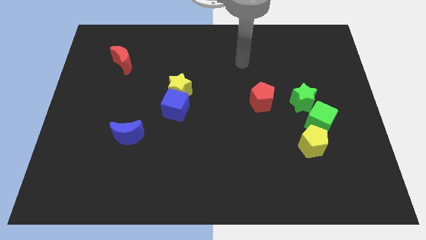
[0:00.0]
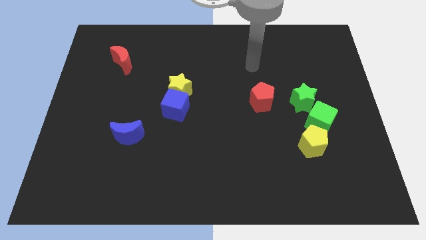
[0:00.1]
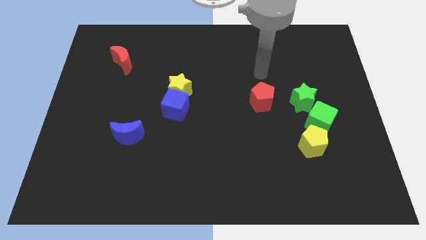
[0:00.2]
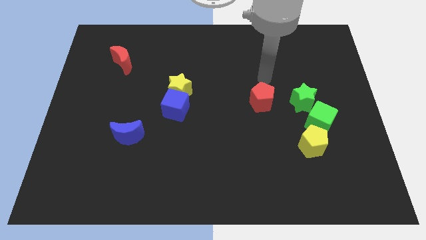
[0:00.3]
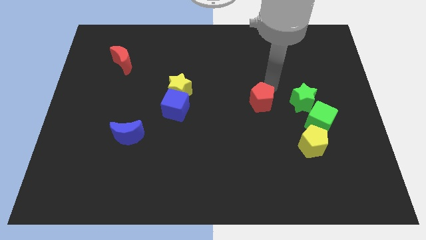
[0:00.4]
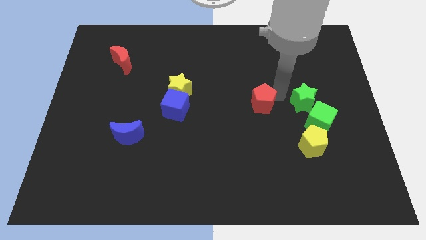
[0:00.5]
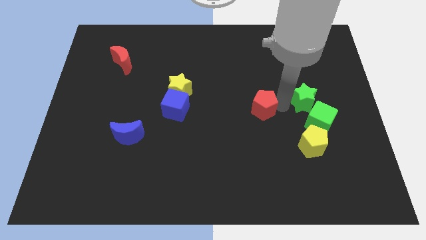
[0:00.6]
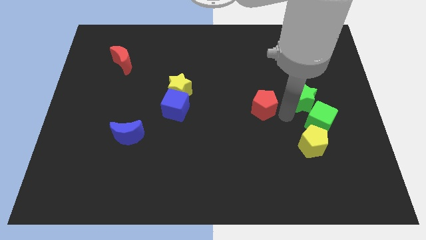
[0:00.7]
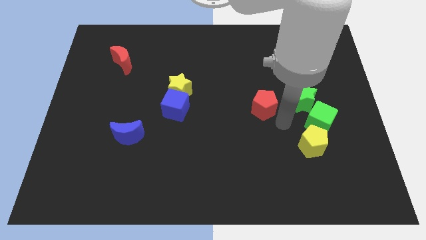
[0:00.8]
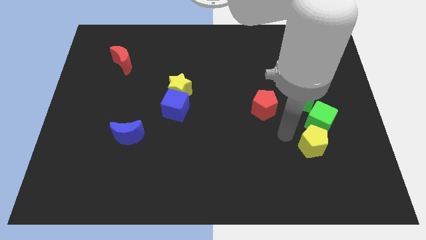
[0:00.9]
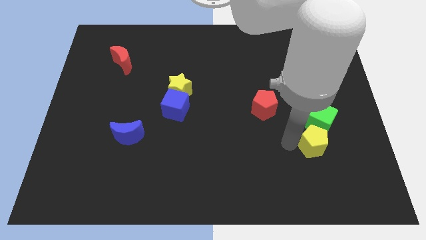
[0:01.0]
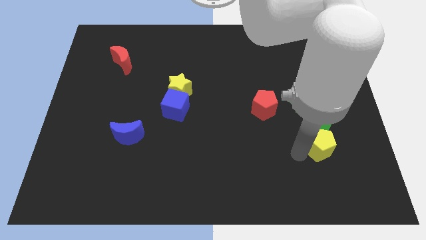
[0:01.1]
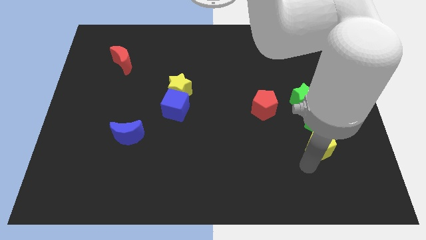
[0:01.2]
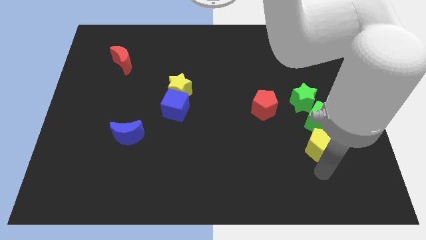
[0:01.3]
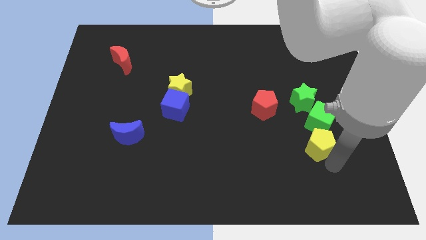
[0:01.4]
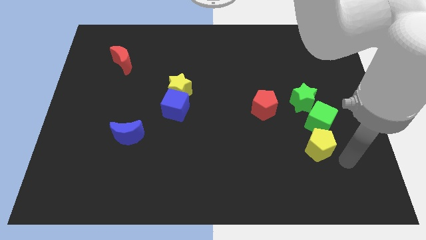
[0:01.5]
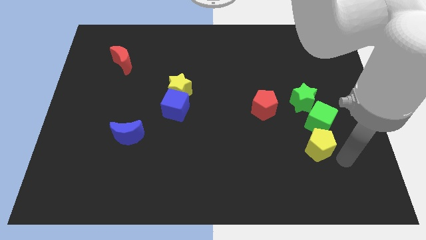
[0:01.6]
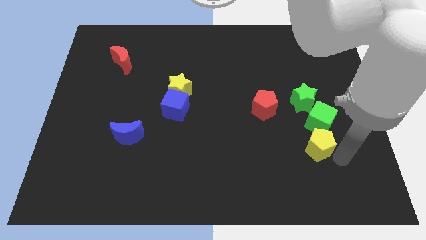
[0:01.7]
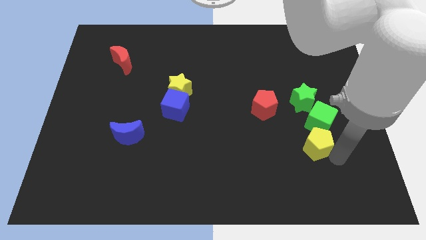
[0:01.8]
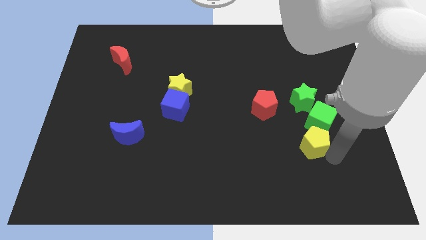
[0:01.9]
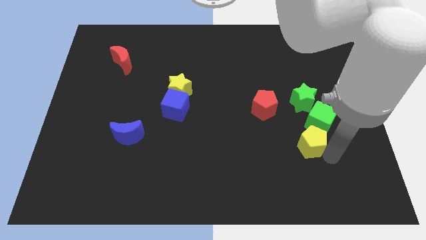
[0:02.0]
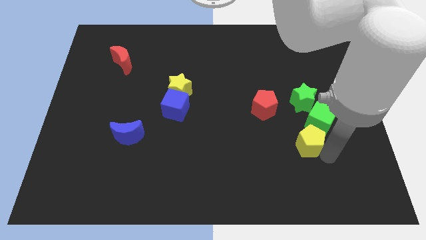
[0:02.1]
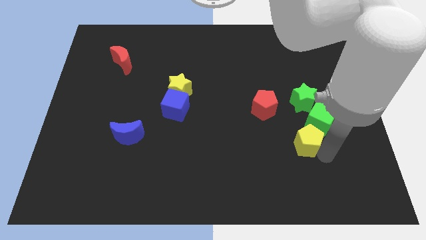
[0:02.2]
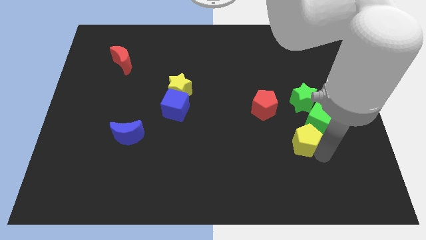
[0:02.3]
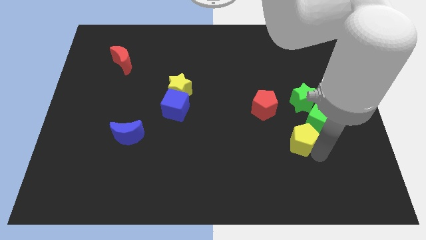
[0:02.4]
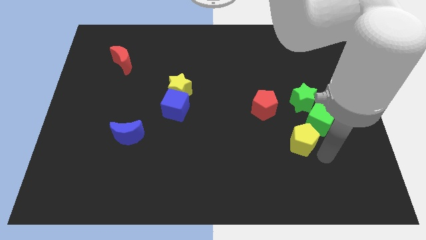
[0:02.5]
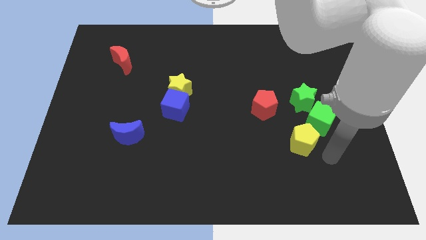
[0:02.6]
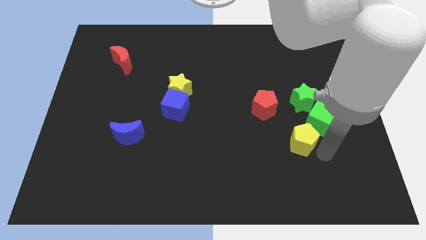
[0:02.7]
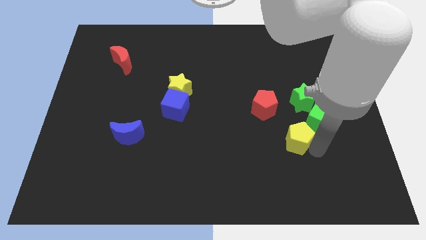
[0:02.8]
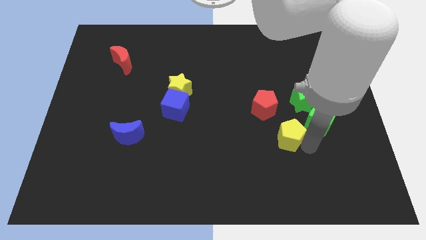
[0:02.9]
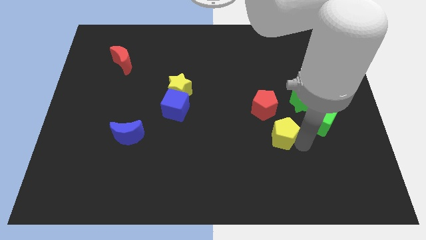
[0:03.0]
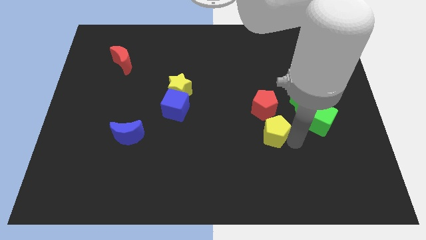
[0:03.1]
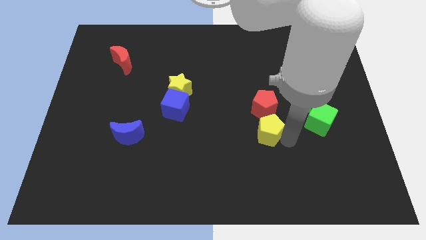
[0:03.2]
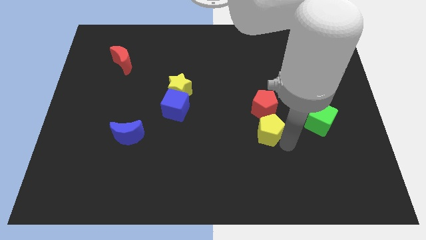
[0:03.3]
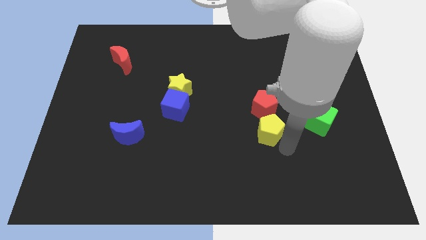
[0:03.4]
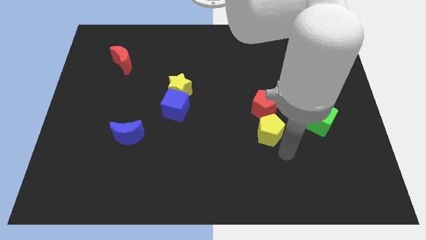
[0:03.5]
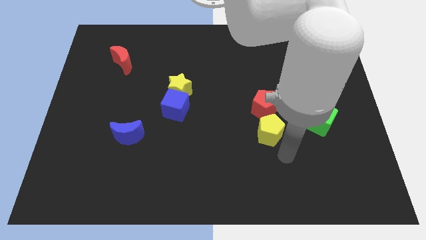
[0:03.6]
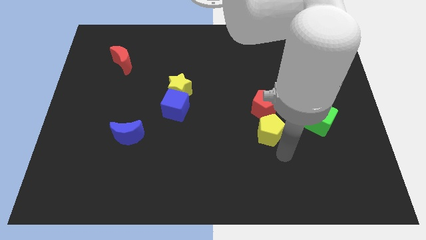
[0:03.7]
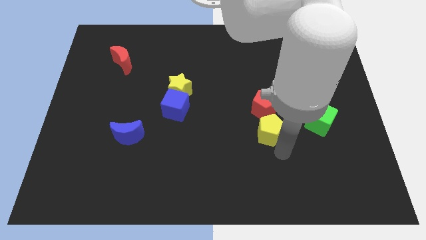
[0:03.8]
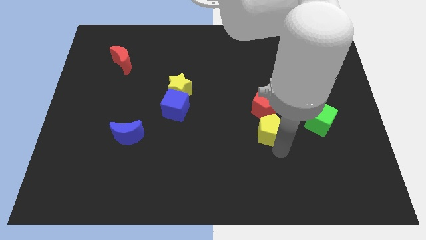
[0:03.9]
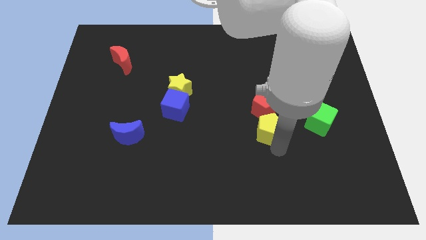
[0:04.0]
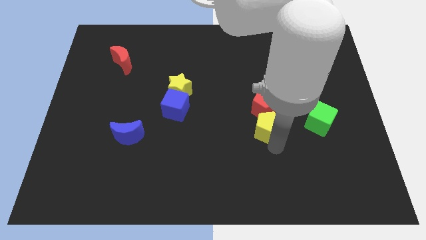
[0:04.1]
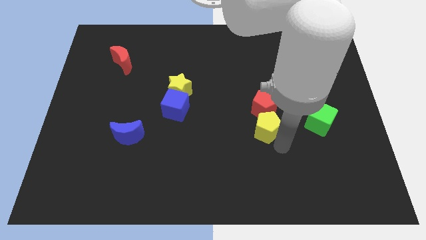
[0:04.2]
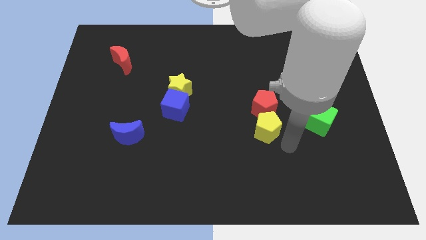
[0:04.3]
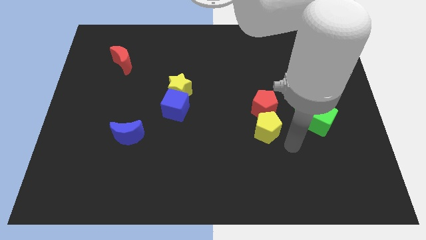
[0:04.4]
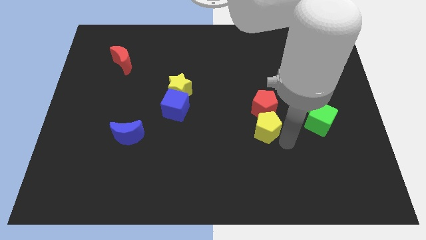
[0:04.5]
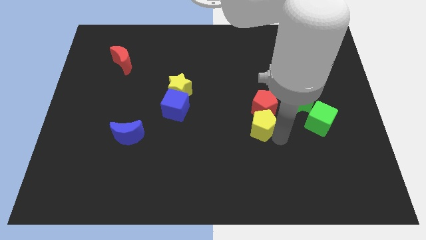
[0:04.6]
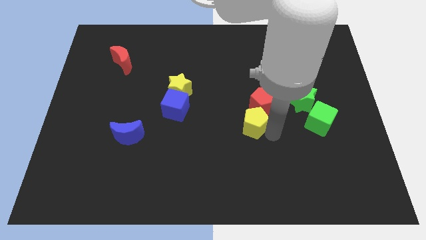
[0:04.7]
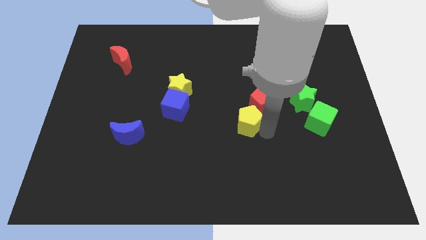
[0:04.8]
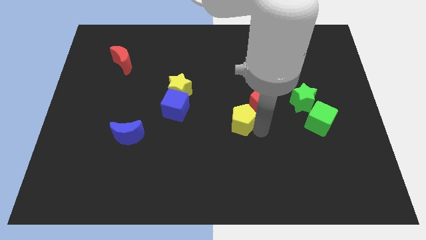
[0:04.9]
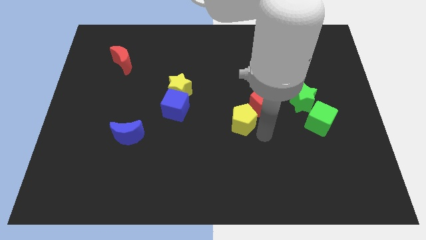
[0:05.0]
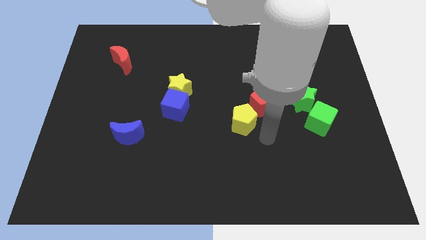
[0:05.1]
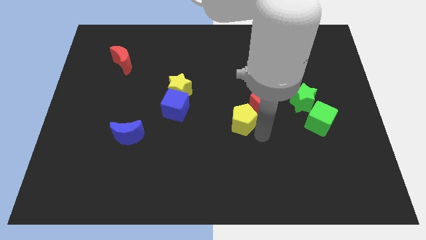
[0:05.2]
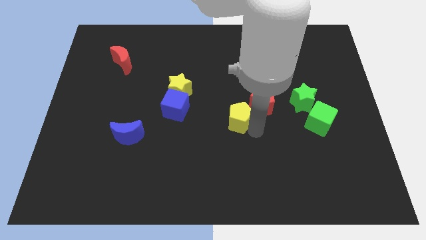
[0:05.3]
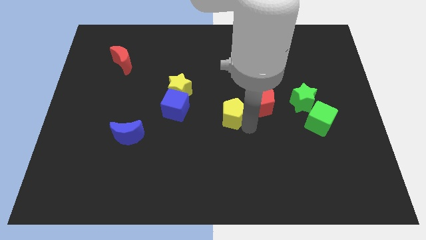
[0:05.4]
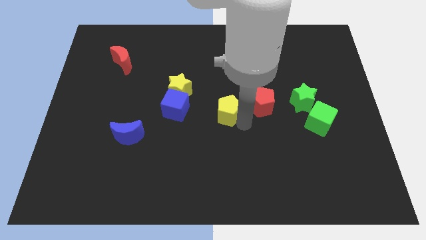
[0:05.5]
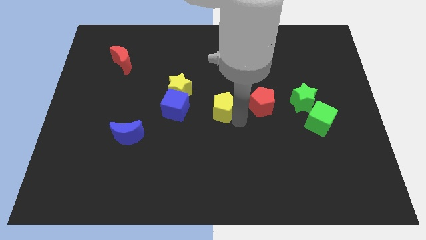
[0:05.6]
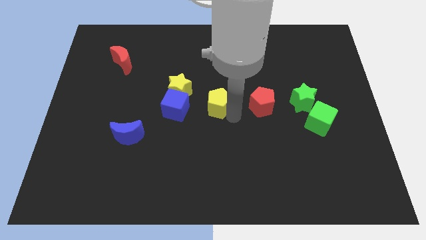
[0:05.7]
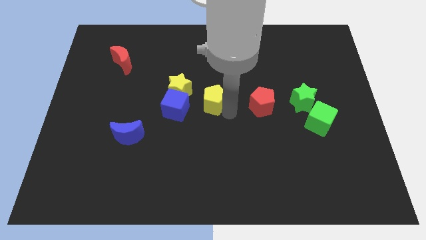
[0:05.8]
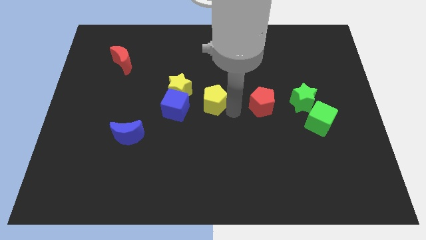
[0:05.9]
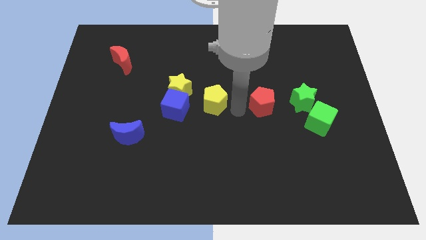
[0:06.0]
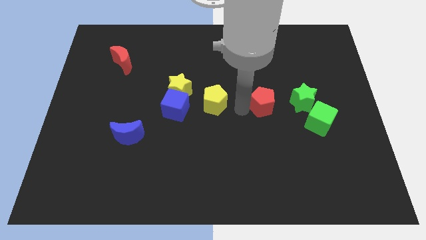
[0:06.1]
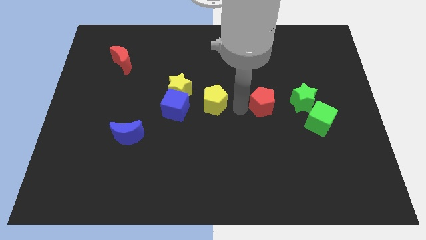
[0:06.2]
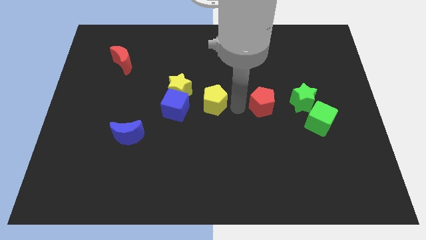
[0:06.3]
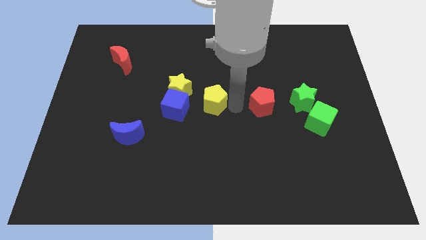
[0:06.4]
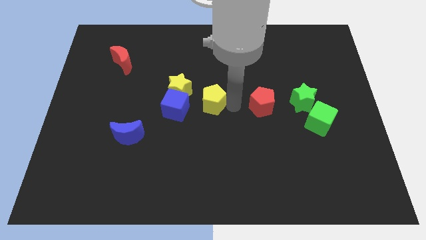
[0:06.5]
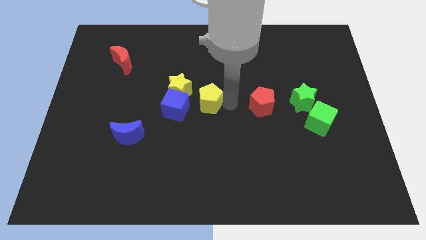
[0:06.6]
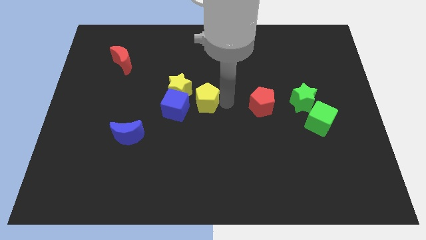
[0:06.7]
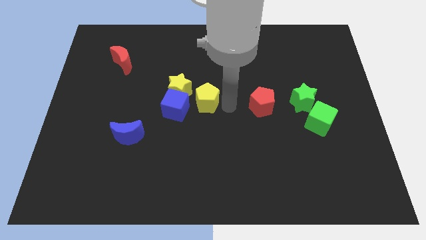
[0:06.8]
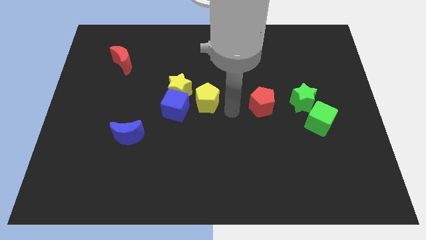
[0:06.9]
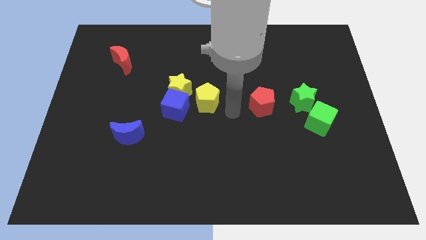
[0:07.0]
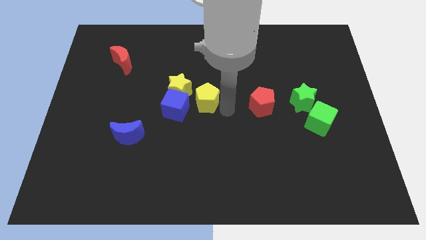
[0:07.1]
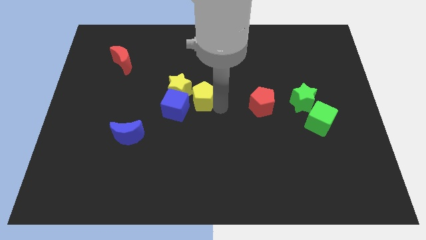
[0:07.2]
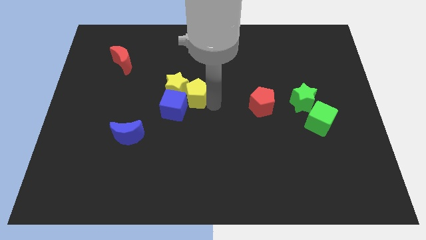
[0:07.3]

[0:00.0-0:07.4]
slide the yellow pentagon towards the yellow star
